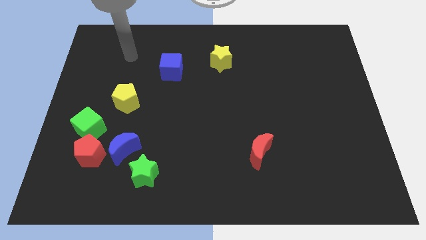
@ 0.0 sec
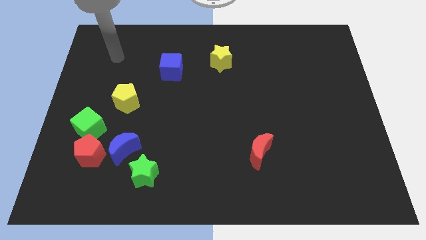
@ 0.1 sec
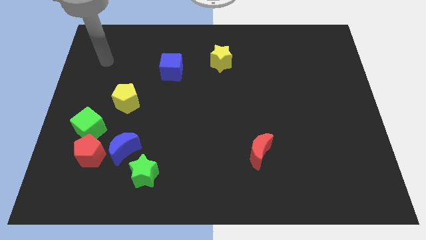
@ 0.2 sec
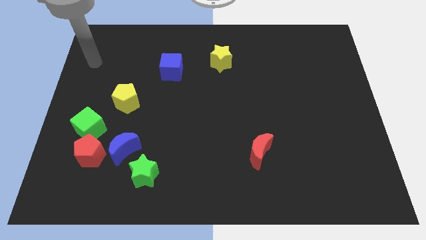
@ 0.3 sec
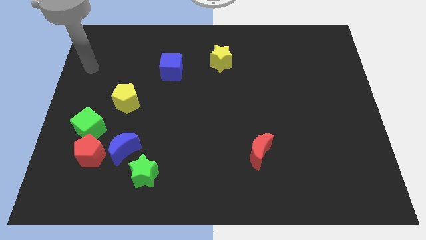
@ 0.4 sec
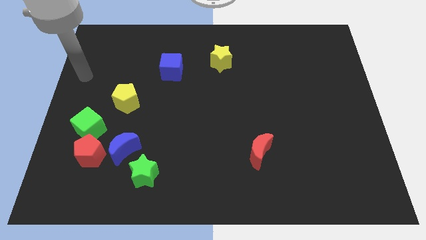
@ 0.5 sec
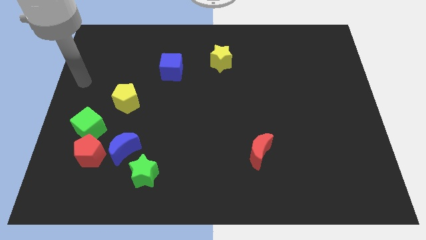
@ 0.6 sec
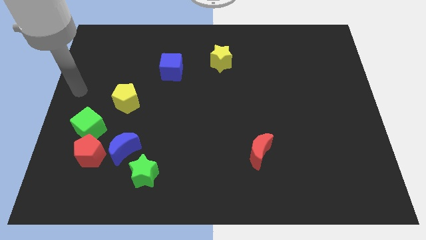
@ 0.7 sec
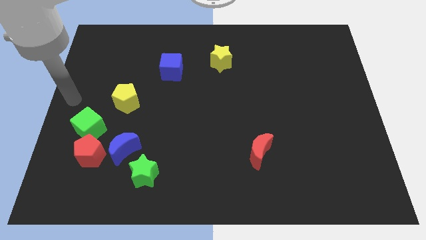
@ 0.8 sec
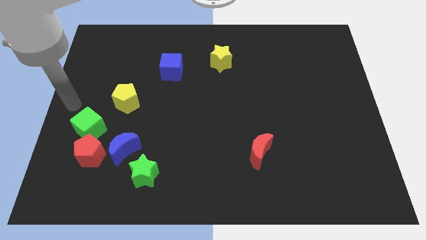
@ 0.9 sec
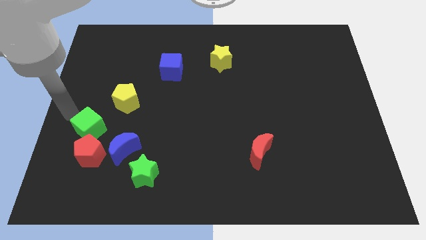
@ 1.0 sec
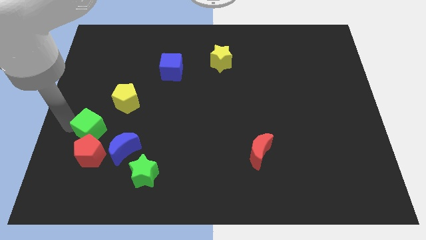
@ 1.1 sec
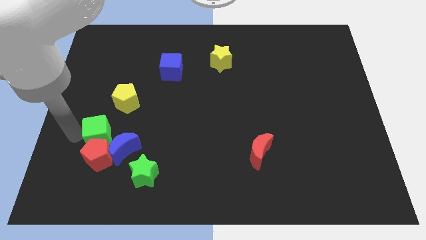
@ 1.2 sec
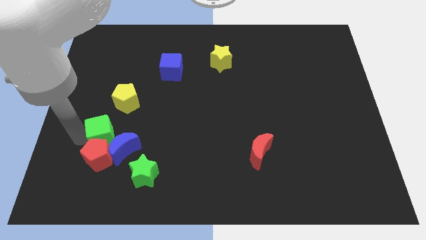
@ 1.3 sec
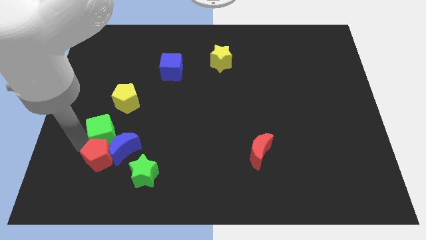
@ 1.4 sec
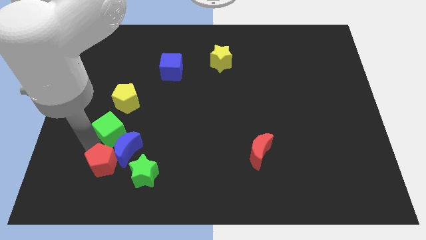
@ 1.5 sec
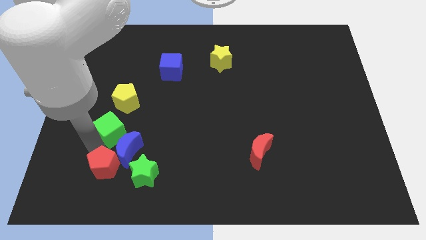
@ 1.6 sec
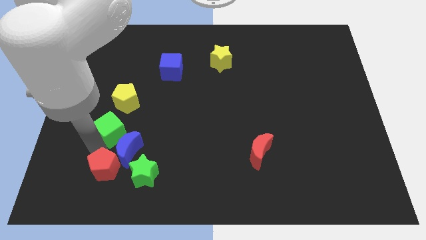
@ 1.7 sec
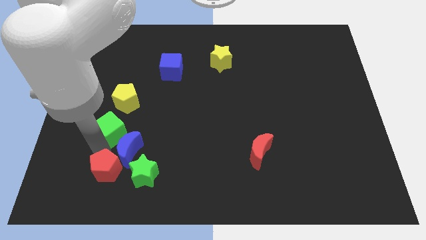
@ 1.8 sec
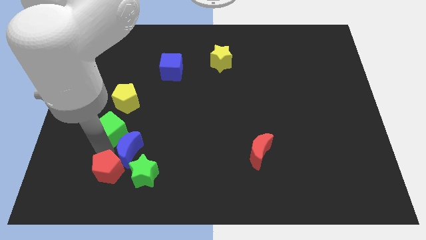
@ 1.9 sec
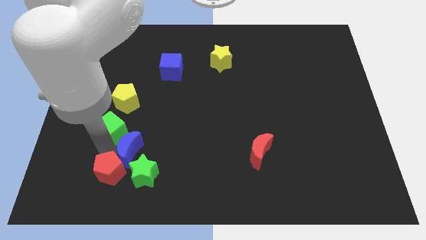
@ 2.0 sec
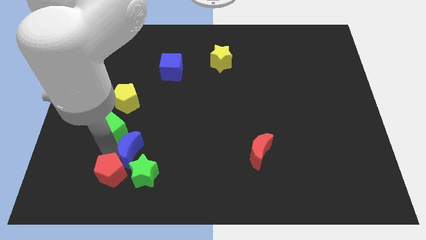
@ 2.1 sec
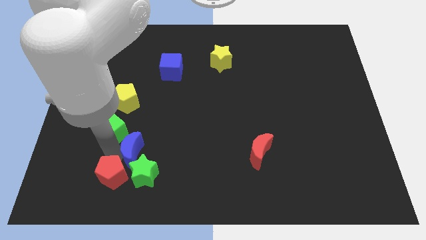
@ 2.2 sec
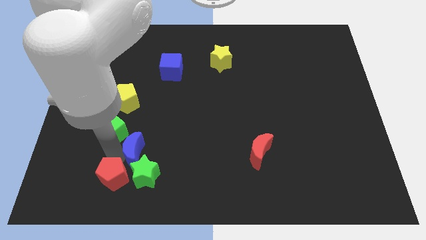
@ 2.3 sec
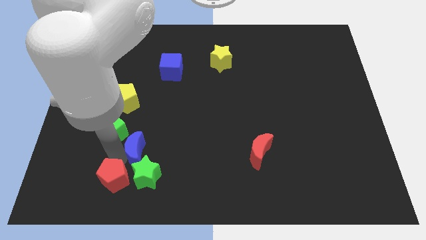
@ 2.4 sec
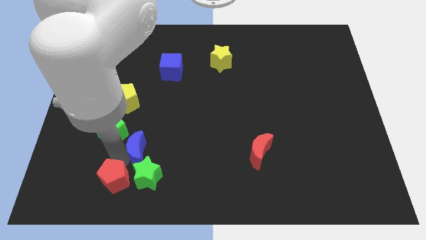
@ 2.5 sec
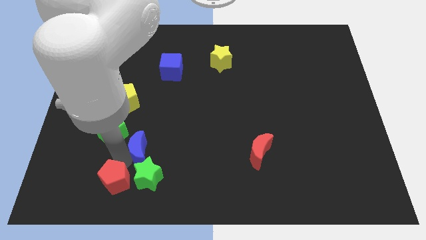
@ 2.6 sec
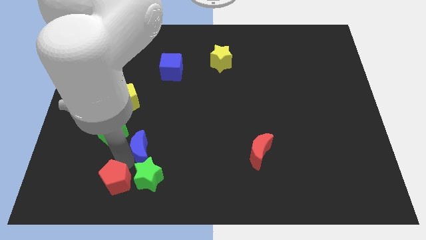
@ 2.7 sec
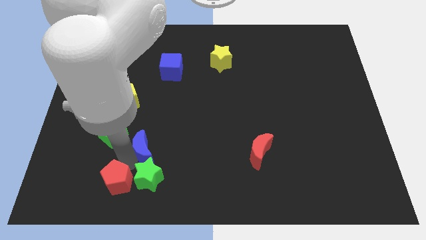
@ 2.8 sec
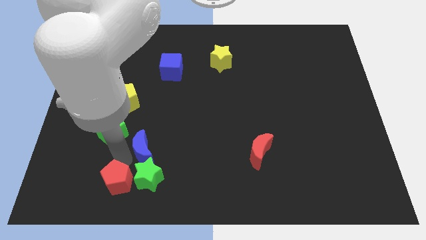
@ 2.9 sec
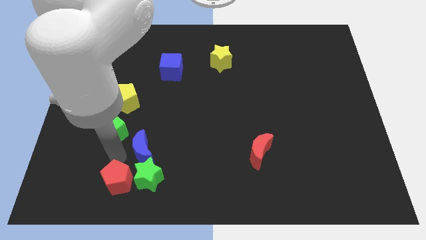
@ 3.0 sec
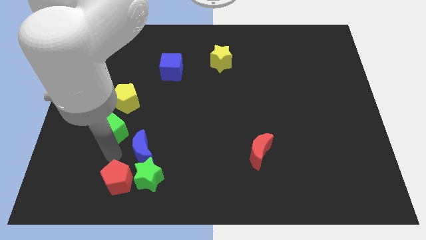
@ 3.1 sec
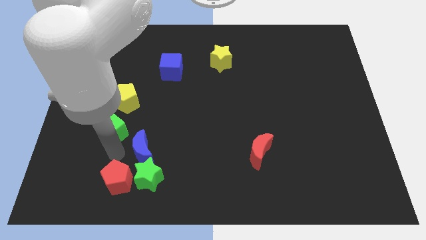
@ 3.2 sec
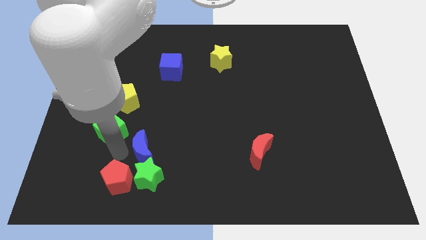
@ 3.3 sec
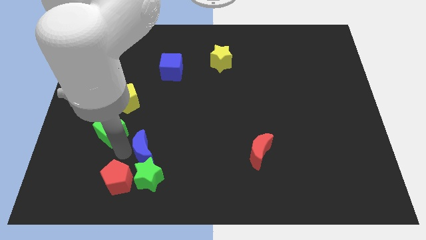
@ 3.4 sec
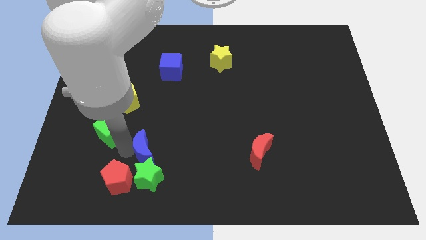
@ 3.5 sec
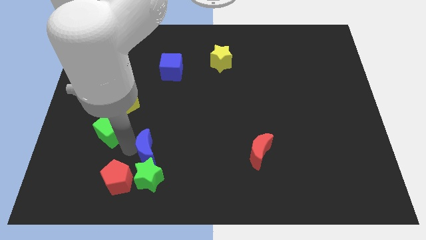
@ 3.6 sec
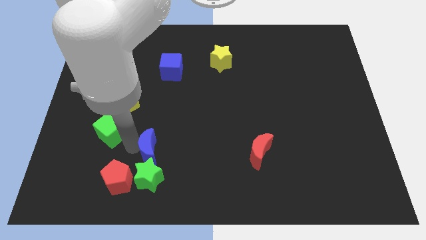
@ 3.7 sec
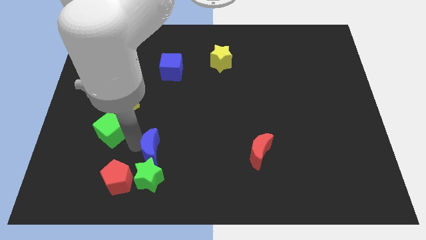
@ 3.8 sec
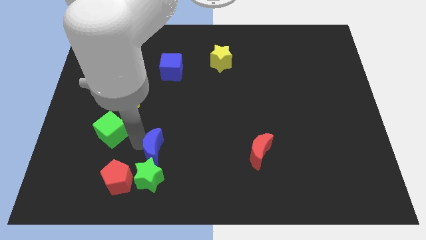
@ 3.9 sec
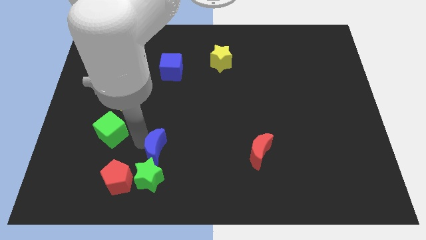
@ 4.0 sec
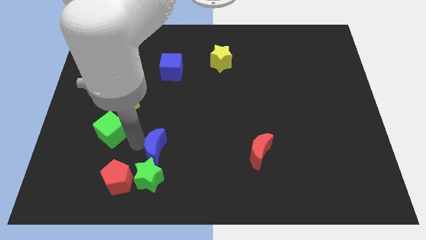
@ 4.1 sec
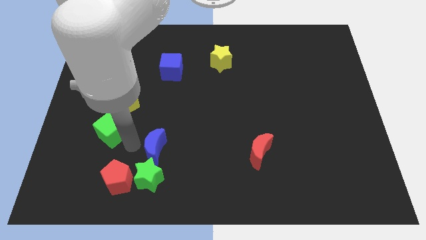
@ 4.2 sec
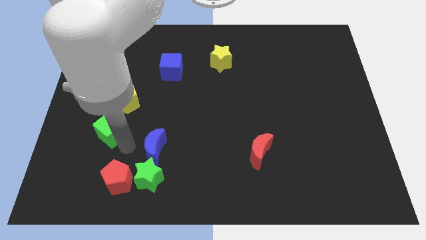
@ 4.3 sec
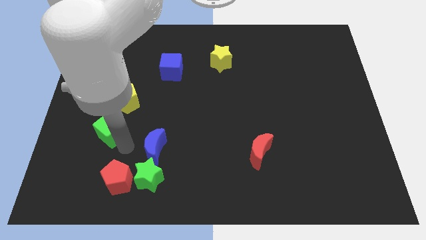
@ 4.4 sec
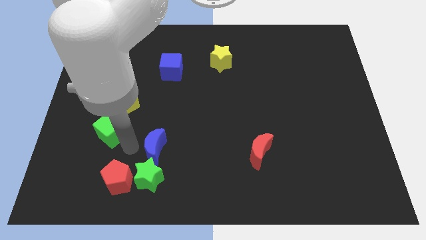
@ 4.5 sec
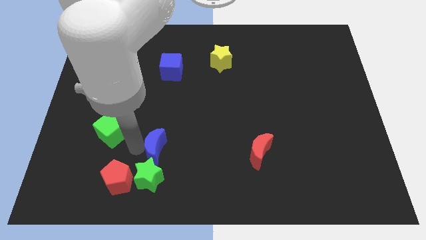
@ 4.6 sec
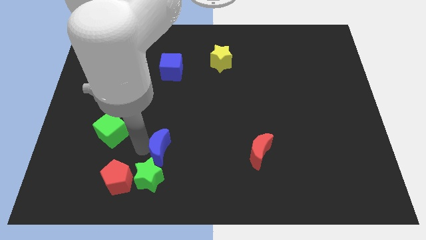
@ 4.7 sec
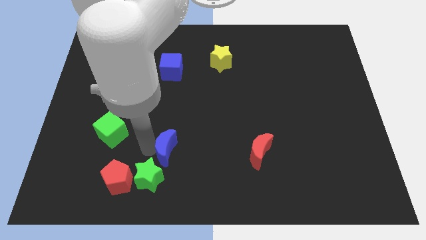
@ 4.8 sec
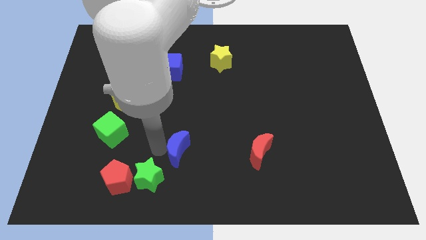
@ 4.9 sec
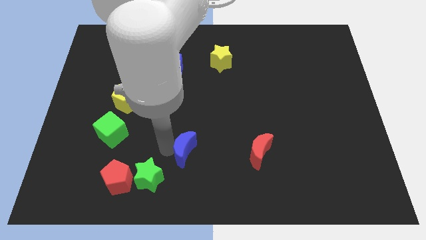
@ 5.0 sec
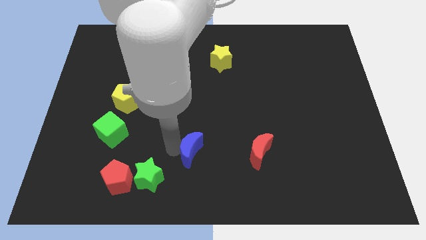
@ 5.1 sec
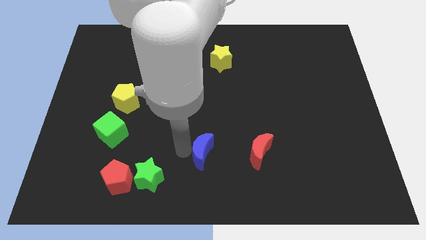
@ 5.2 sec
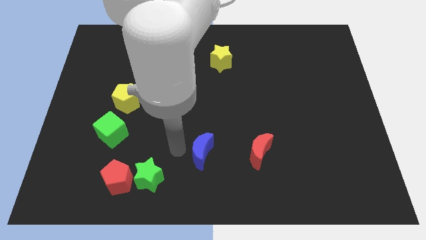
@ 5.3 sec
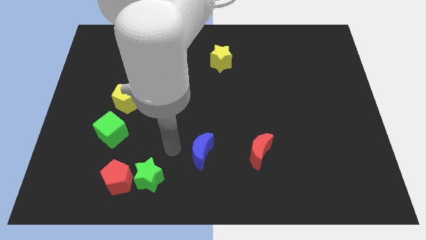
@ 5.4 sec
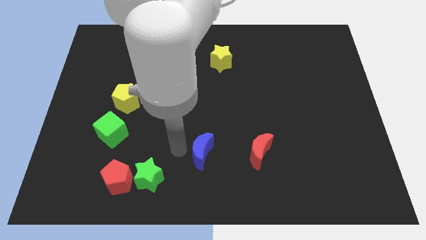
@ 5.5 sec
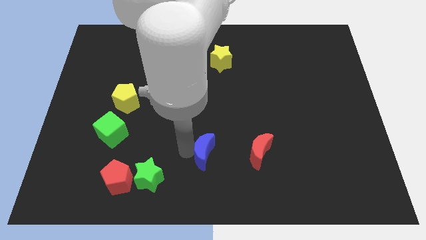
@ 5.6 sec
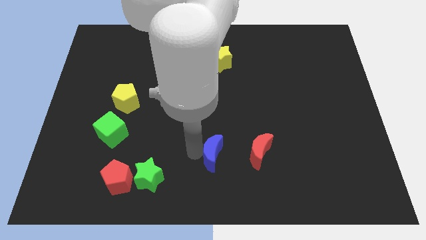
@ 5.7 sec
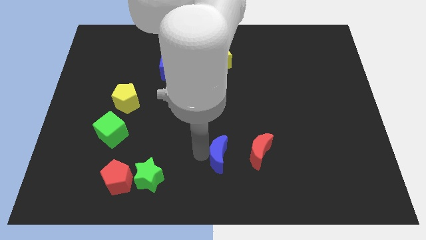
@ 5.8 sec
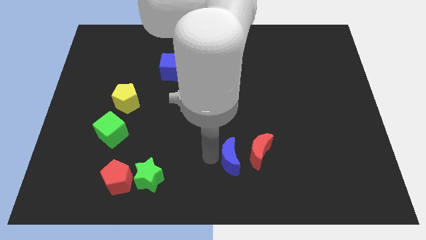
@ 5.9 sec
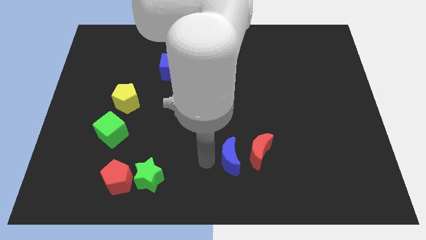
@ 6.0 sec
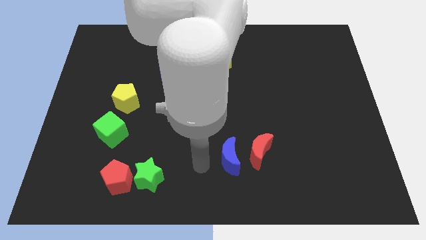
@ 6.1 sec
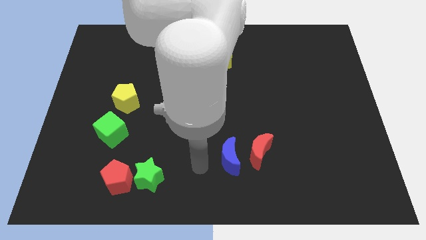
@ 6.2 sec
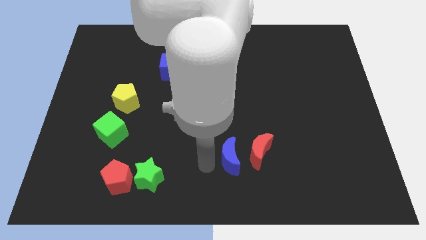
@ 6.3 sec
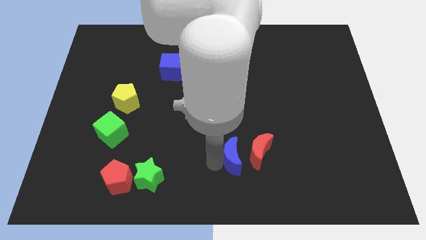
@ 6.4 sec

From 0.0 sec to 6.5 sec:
push the blue moon close to the red moon
